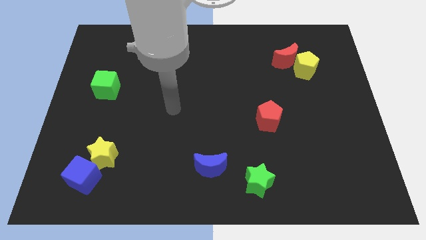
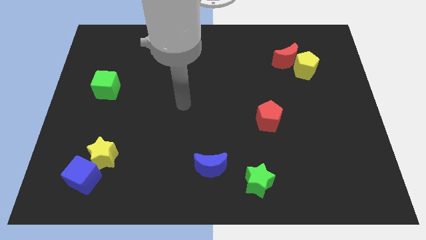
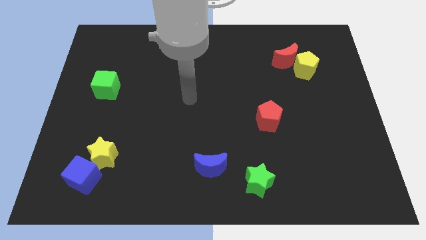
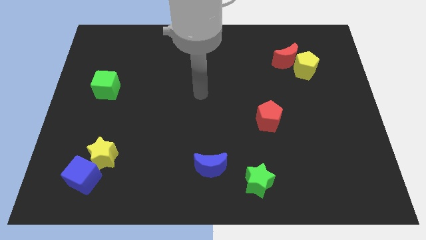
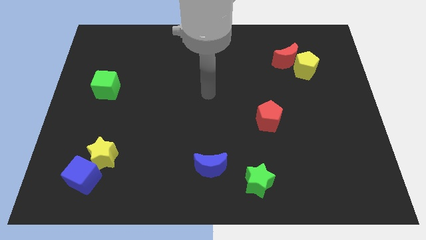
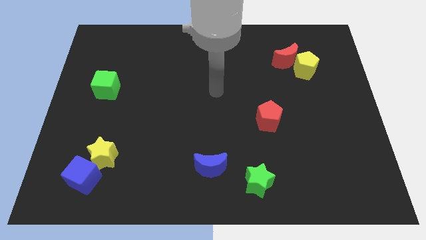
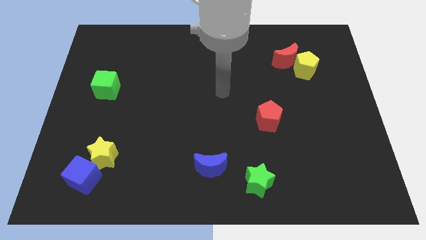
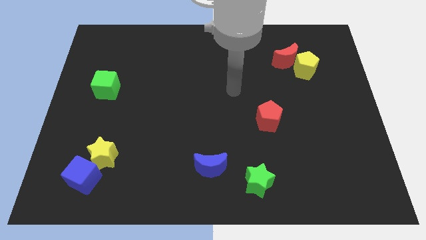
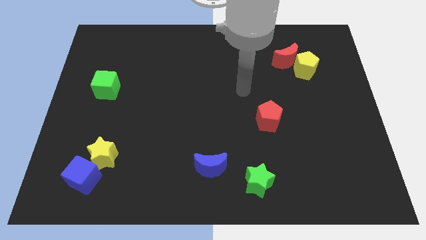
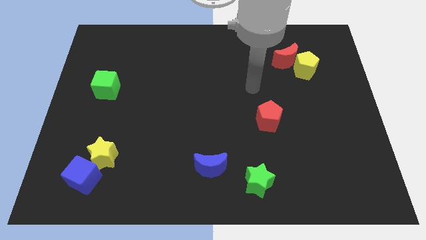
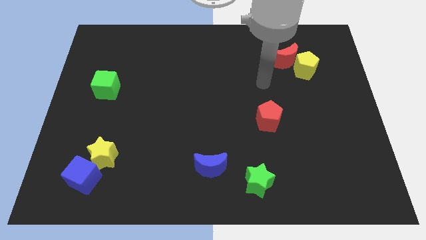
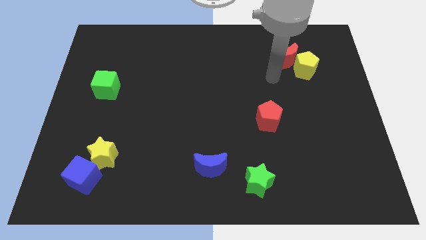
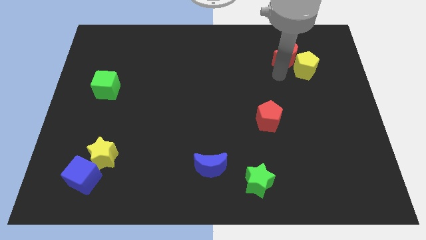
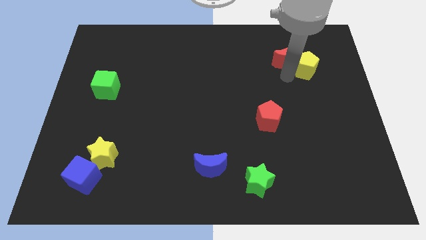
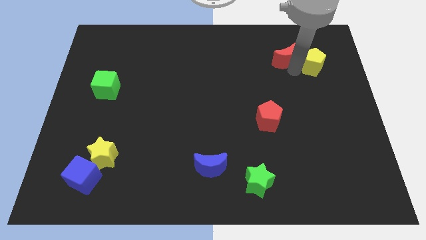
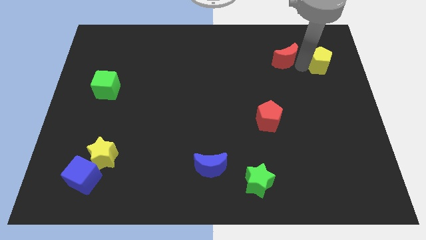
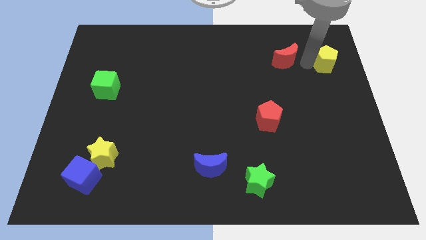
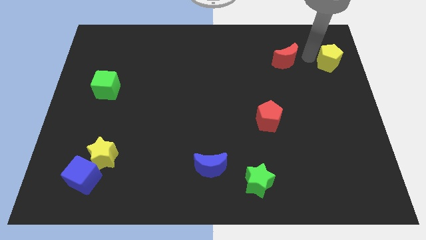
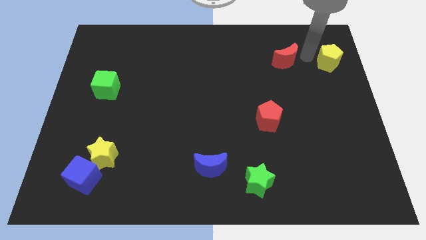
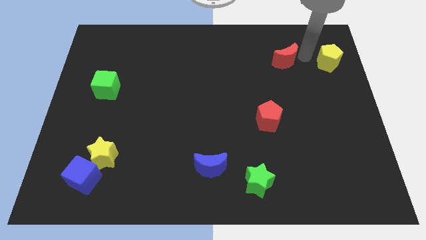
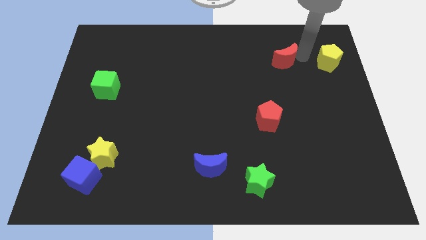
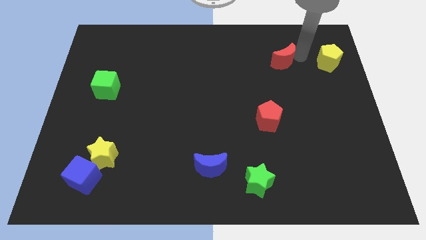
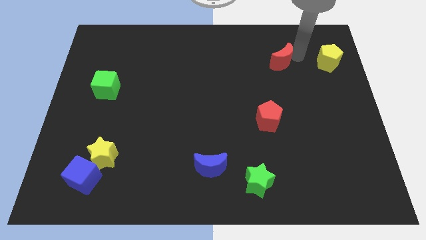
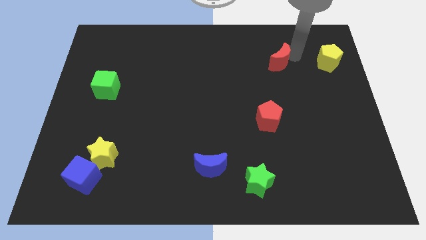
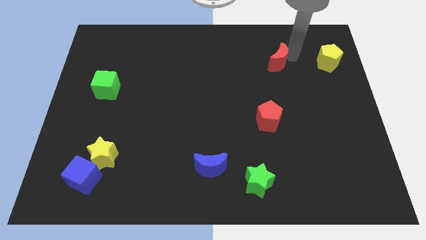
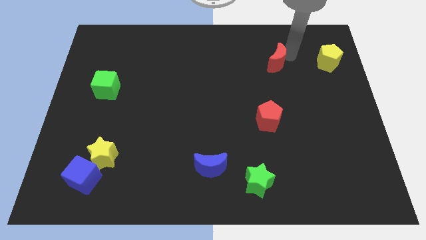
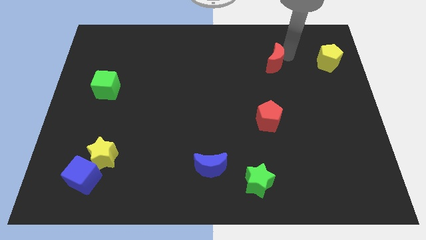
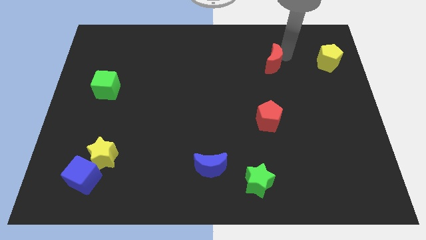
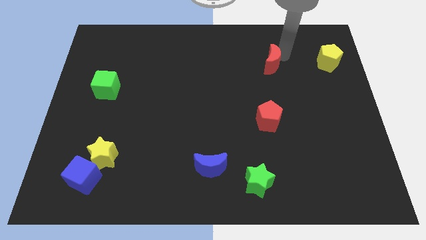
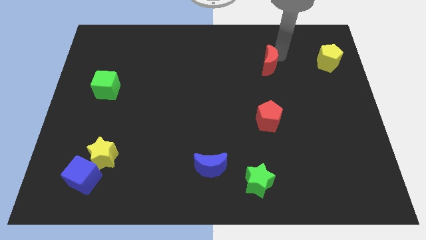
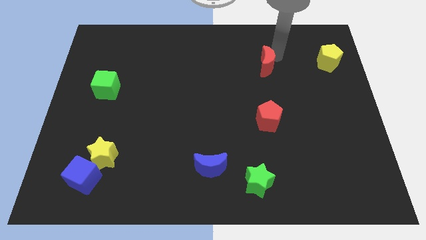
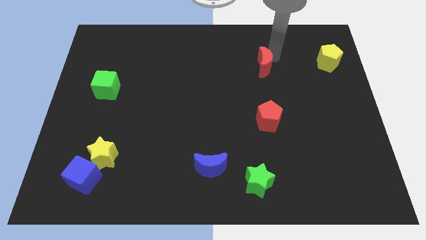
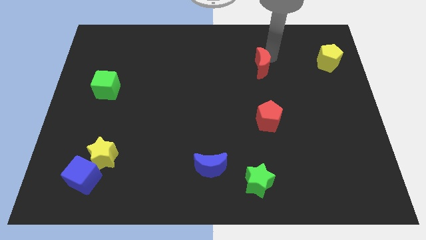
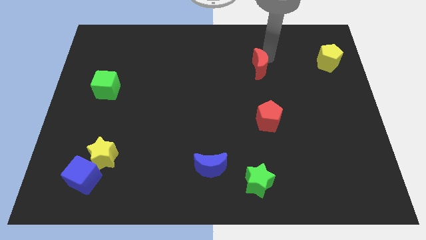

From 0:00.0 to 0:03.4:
move the red moon to the left a little

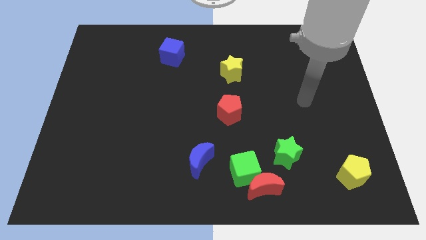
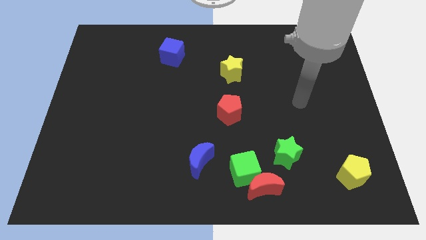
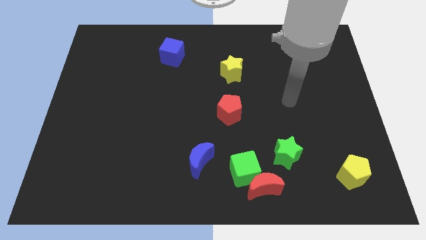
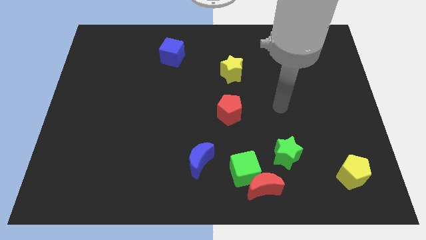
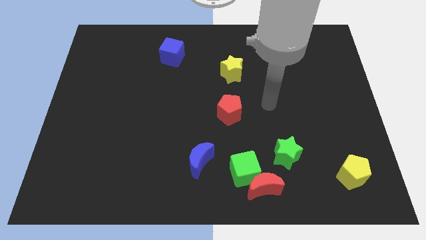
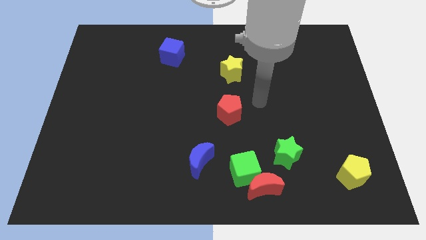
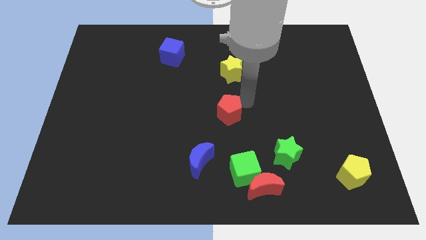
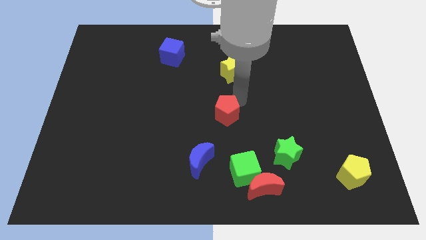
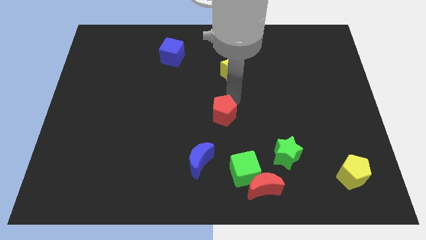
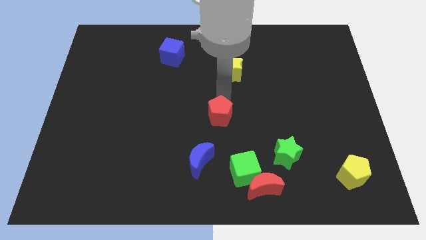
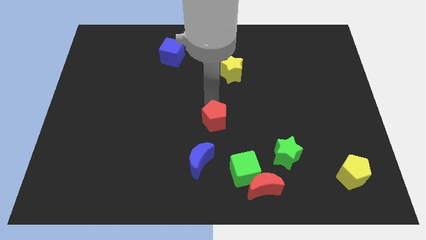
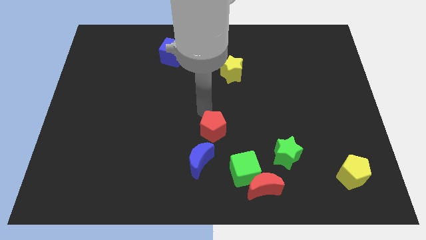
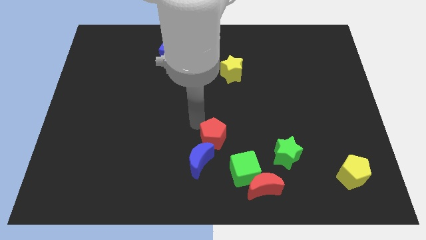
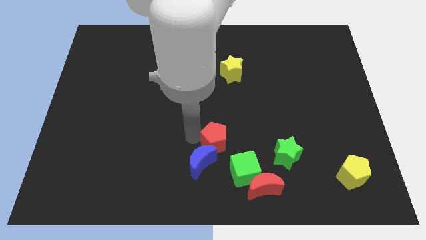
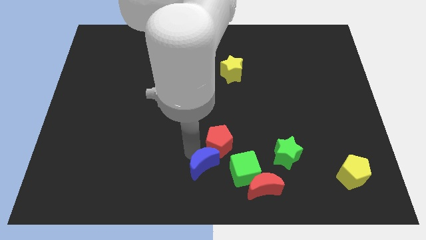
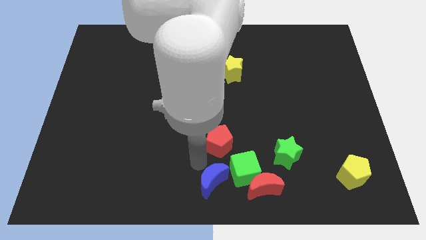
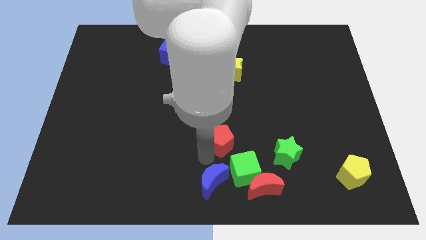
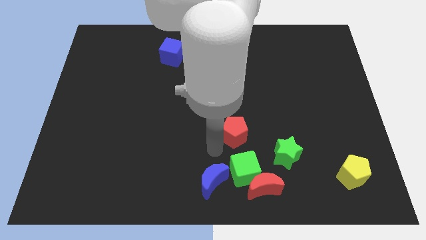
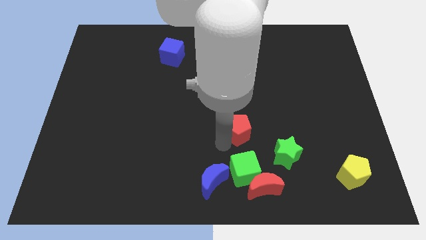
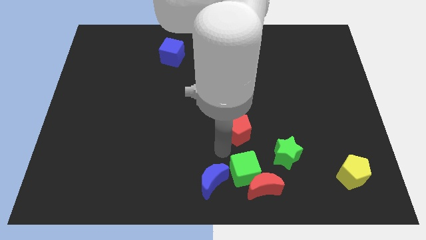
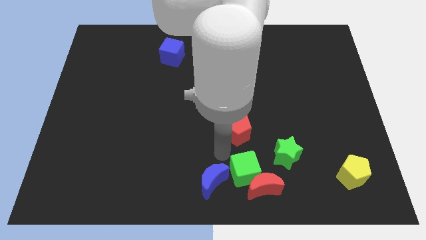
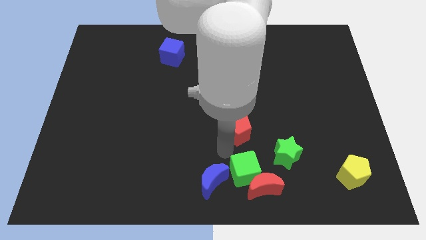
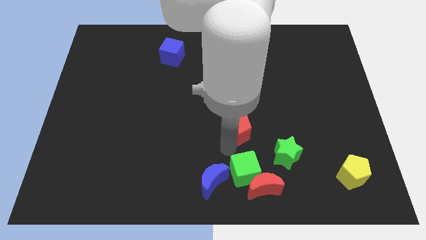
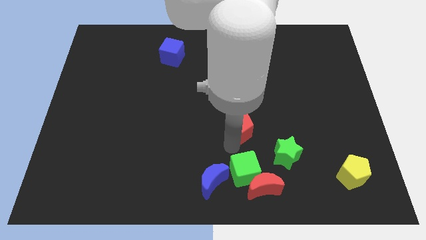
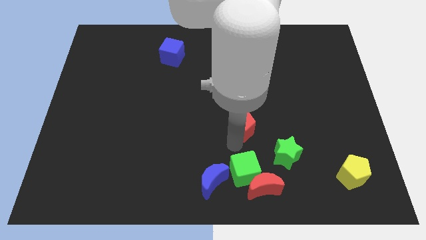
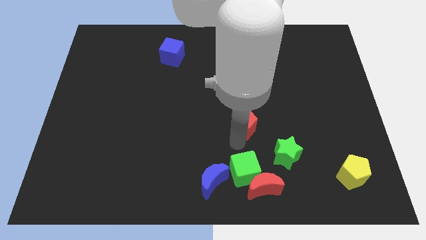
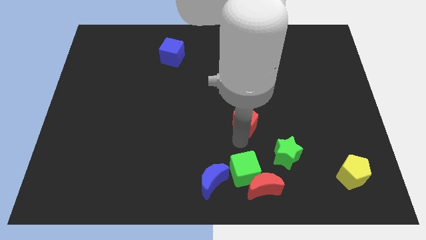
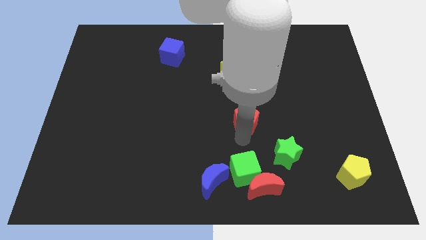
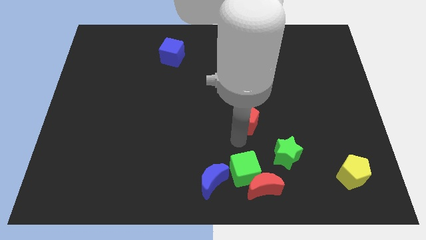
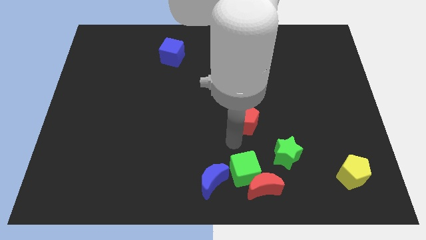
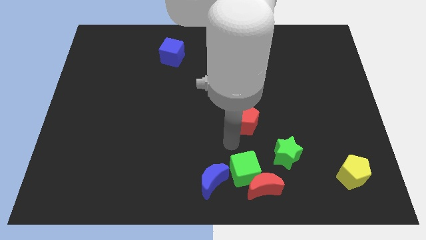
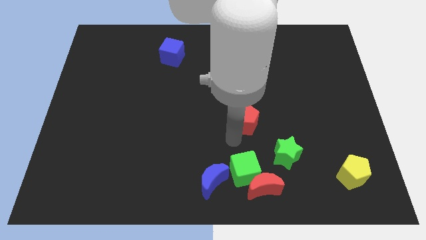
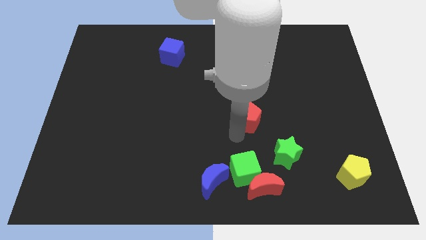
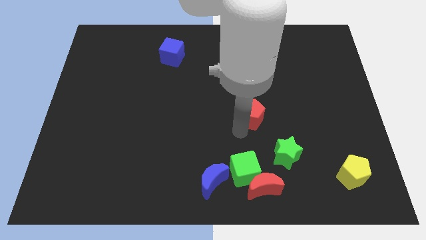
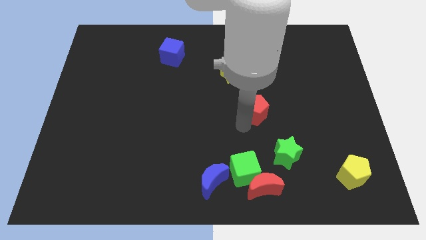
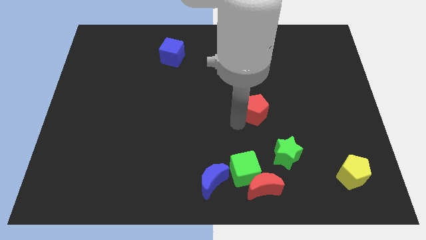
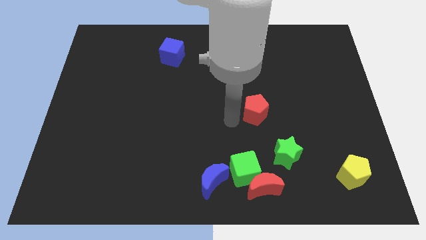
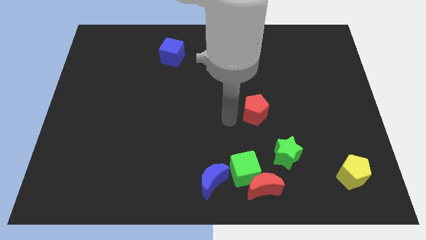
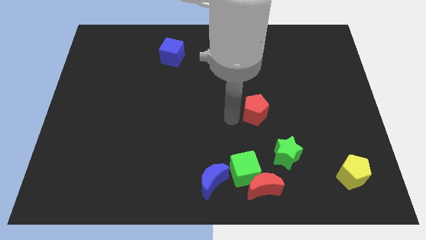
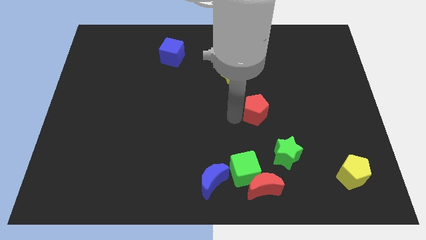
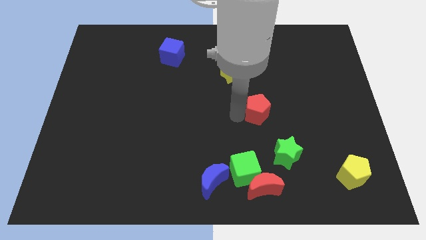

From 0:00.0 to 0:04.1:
slightly move the red pentagon to the right

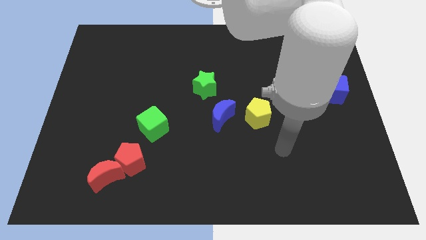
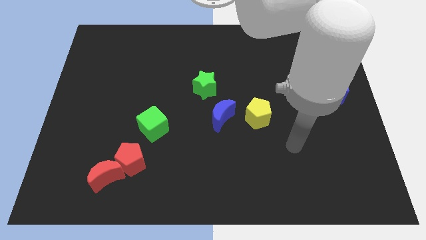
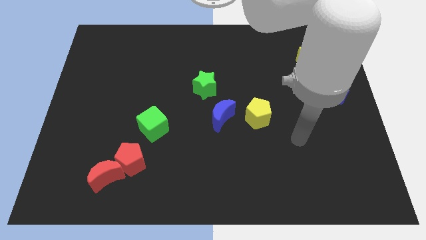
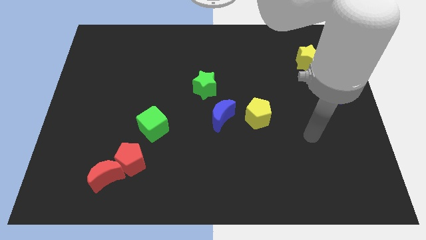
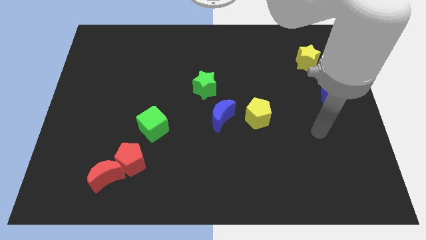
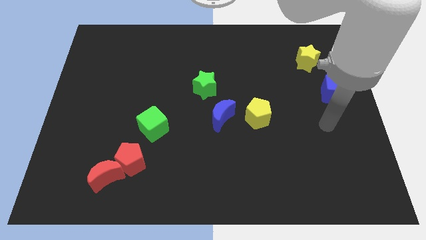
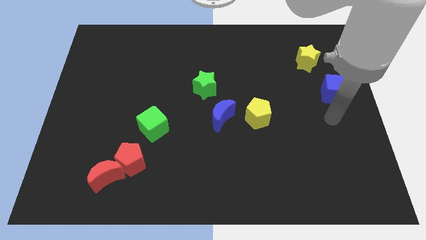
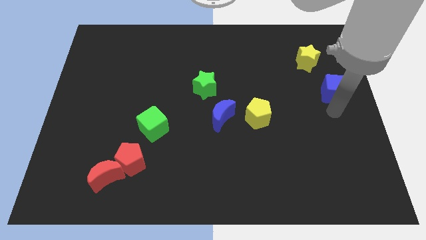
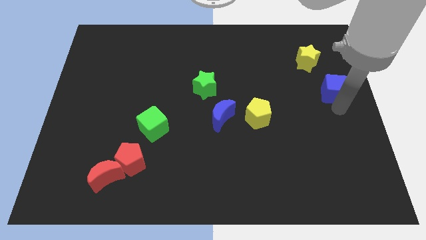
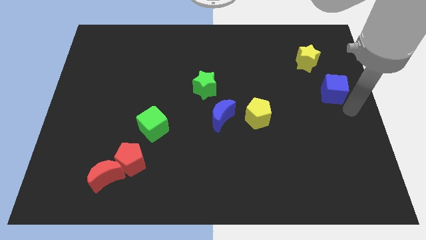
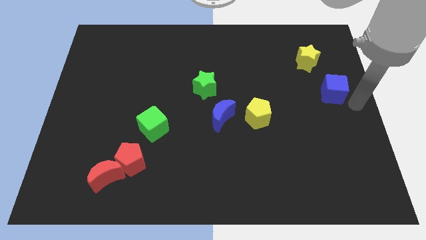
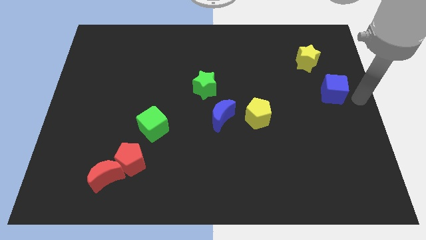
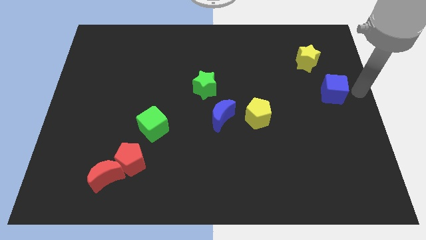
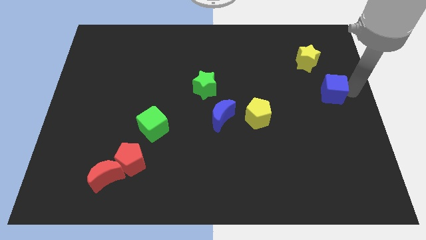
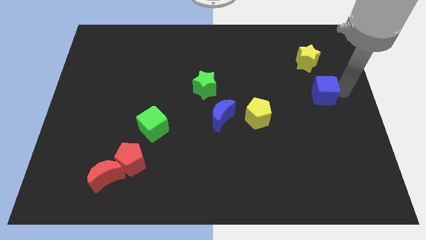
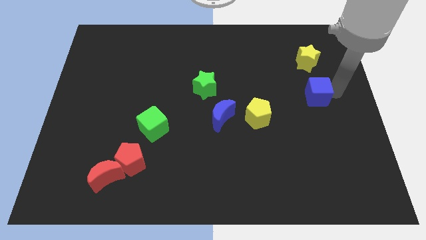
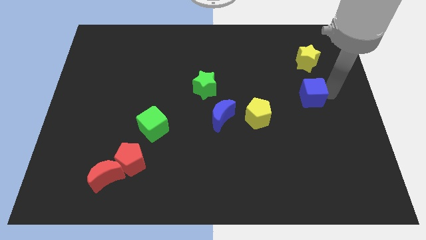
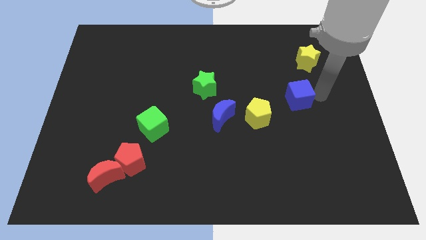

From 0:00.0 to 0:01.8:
push the blue cube to the left a little bit
